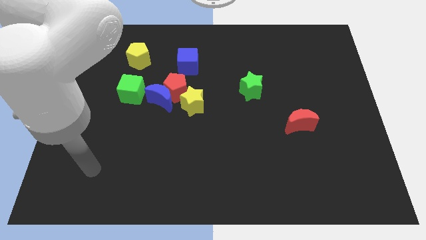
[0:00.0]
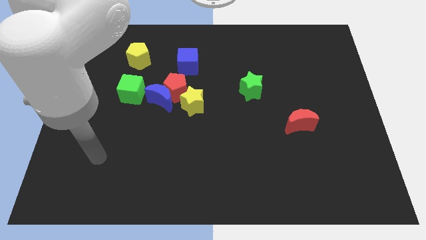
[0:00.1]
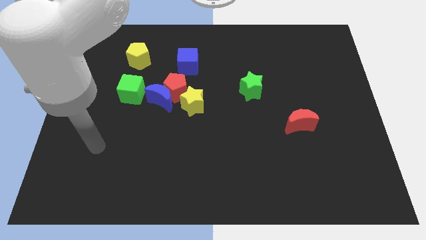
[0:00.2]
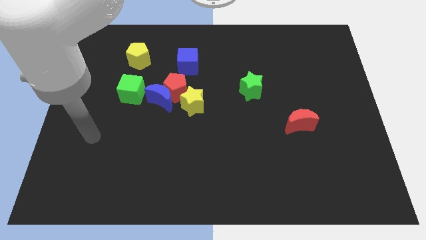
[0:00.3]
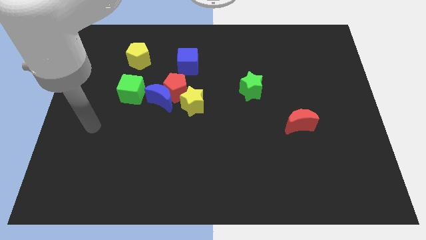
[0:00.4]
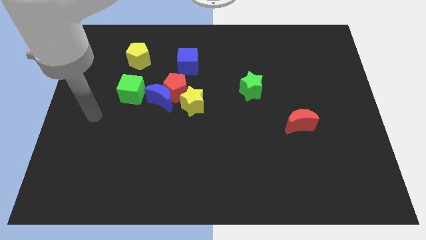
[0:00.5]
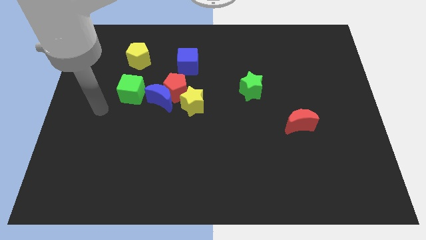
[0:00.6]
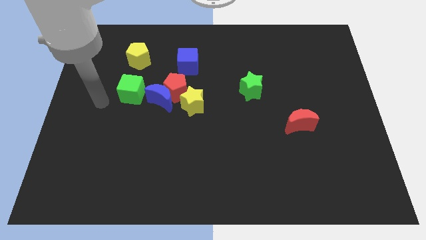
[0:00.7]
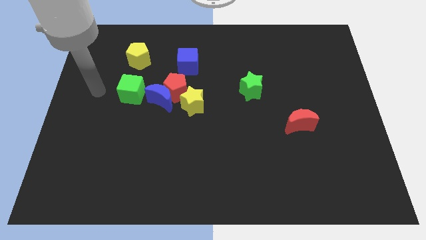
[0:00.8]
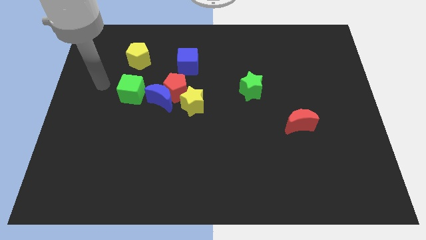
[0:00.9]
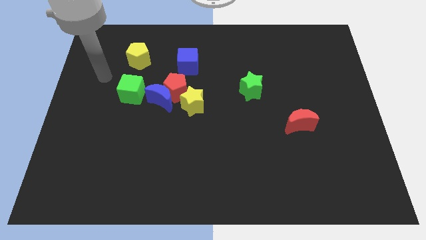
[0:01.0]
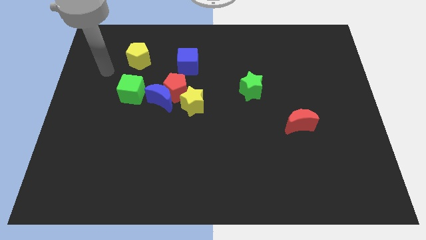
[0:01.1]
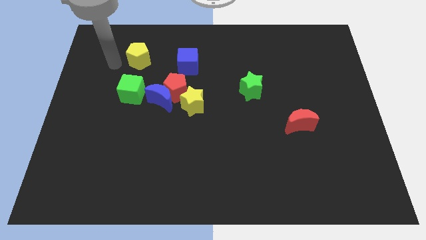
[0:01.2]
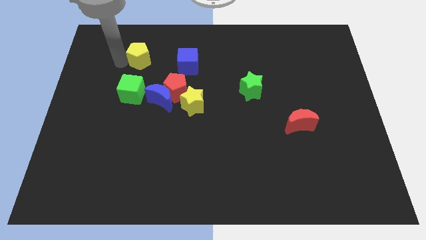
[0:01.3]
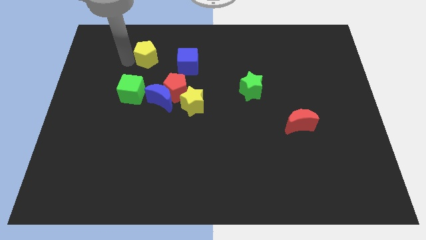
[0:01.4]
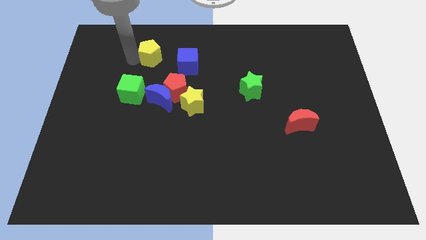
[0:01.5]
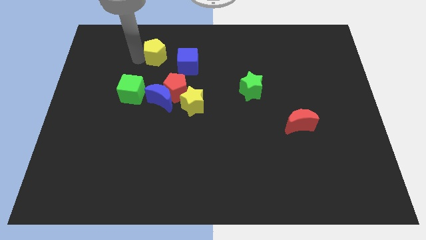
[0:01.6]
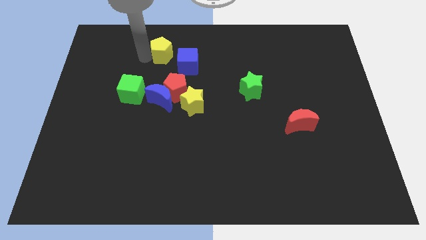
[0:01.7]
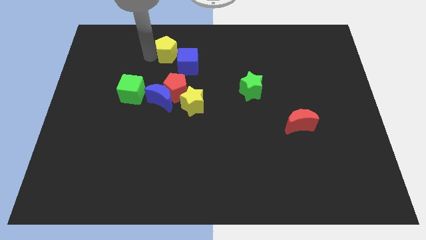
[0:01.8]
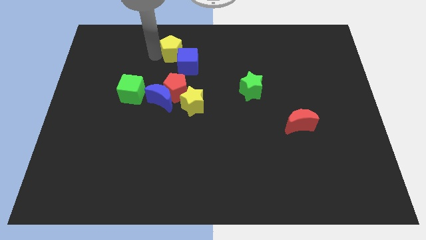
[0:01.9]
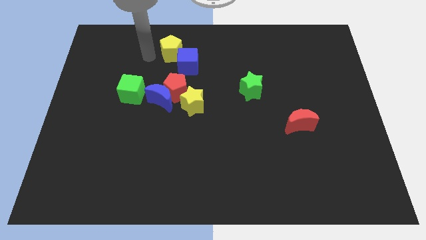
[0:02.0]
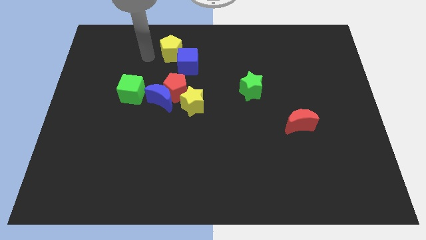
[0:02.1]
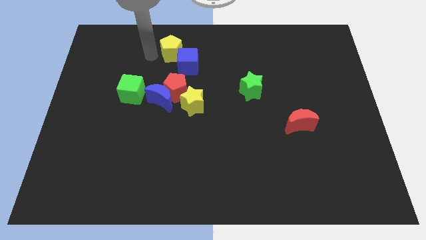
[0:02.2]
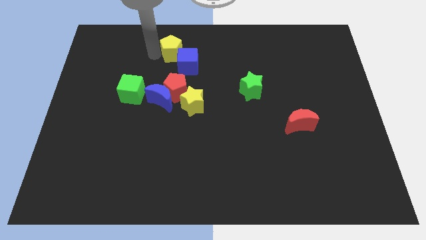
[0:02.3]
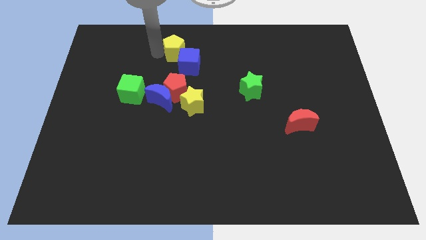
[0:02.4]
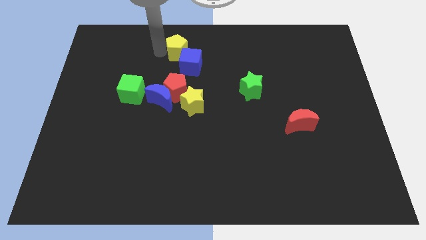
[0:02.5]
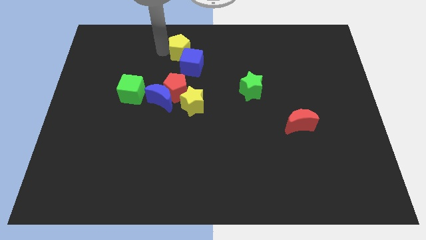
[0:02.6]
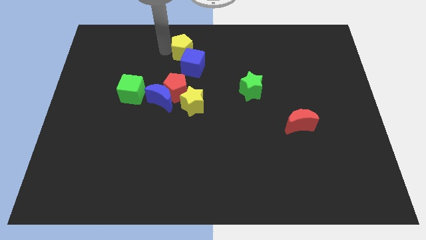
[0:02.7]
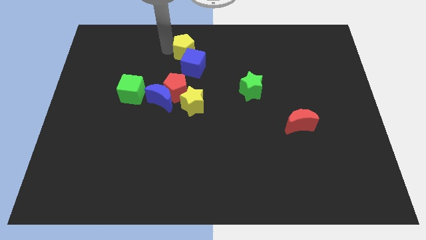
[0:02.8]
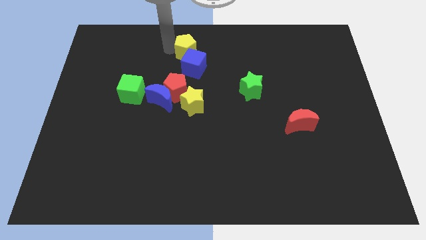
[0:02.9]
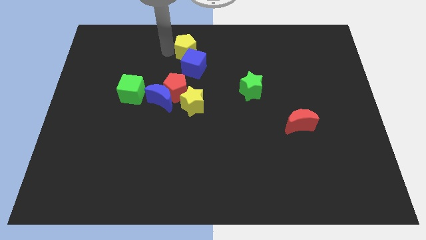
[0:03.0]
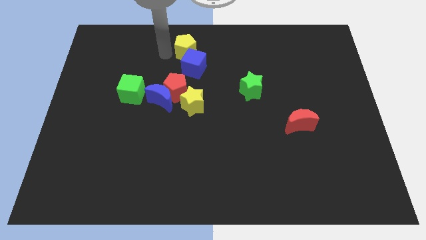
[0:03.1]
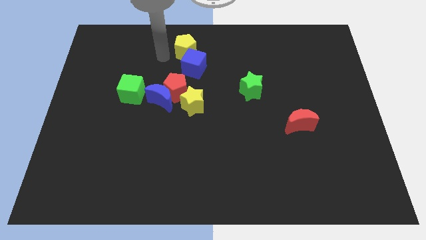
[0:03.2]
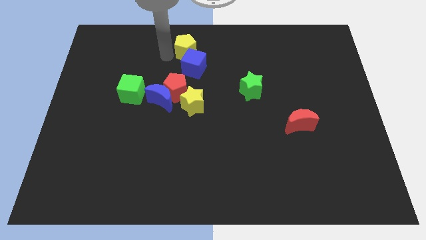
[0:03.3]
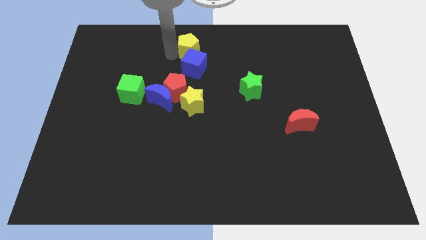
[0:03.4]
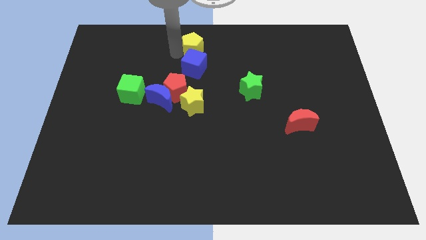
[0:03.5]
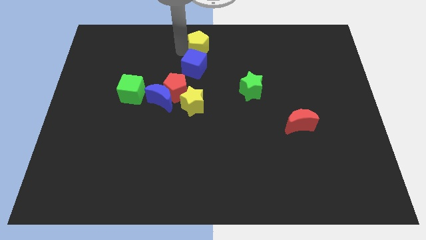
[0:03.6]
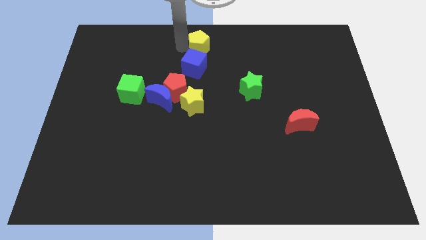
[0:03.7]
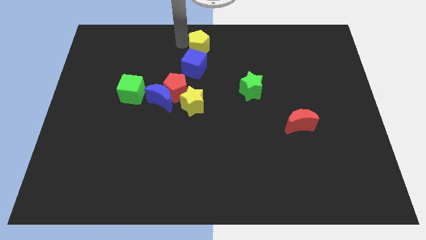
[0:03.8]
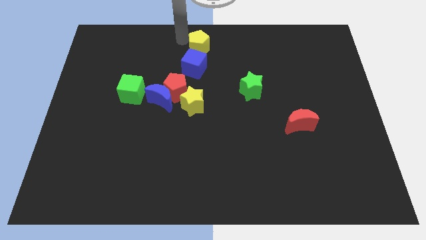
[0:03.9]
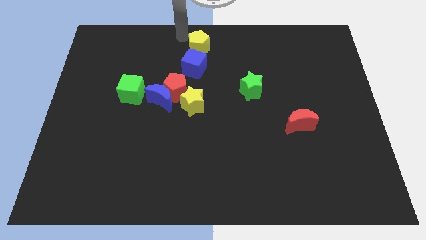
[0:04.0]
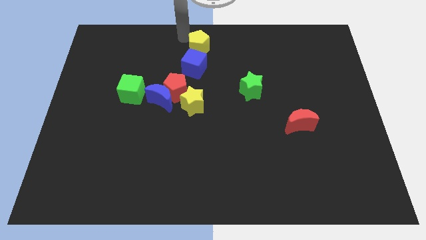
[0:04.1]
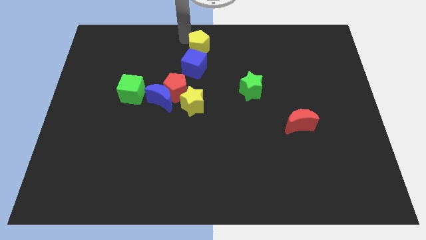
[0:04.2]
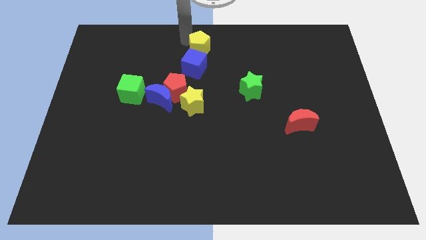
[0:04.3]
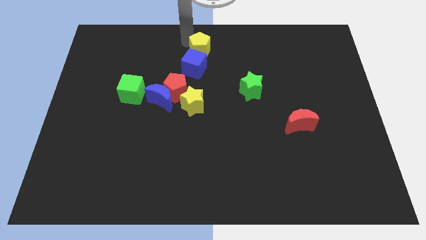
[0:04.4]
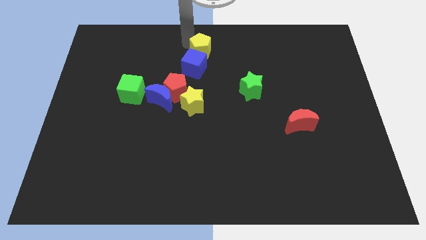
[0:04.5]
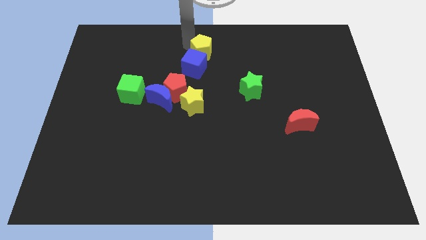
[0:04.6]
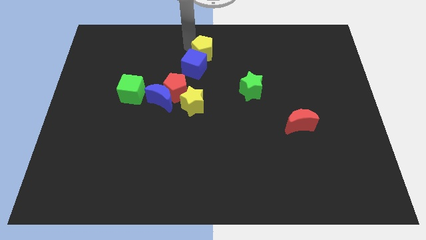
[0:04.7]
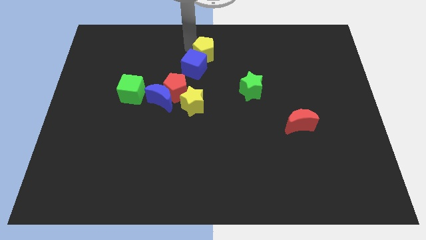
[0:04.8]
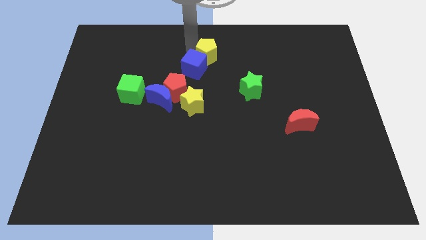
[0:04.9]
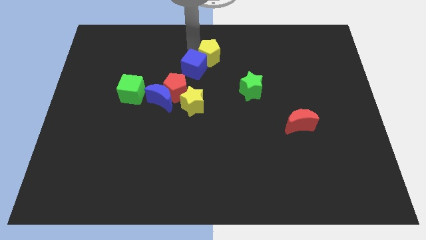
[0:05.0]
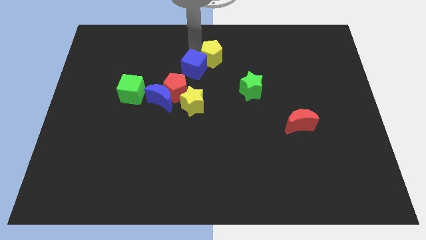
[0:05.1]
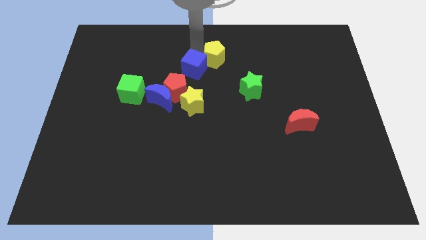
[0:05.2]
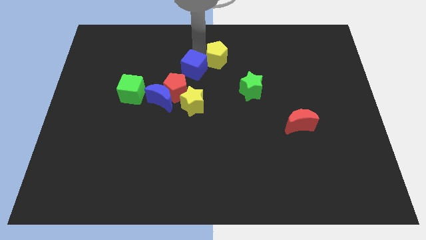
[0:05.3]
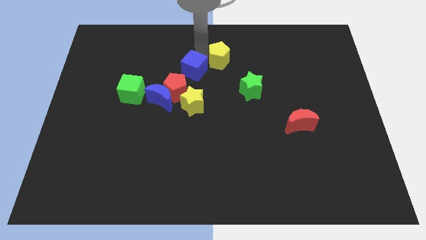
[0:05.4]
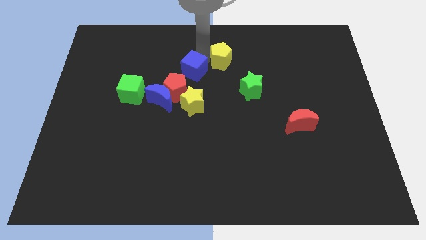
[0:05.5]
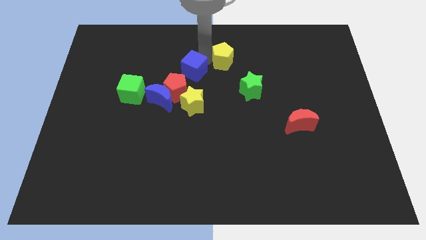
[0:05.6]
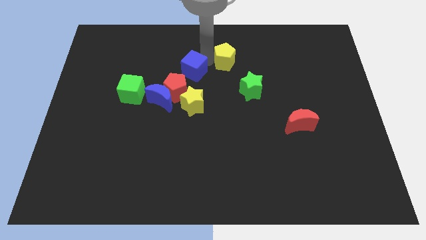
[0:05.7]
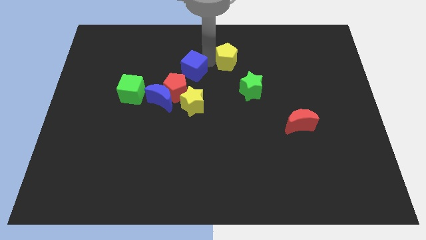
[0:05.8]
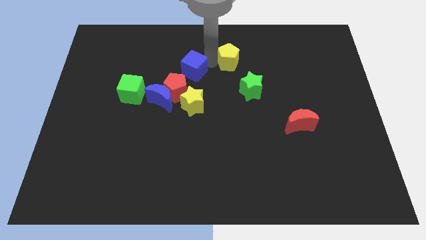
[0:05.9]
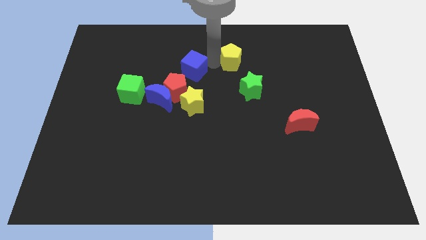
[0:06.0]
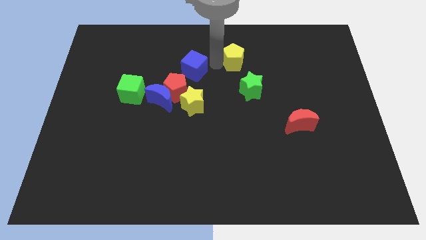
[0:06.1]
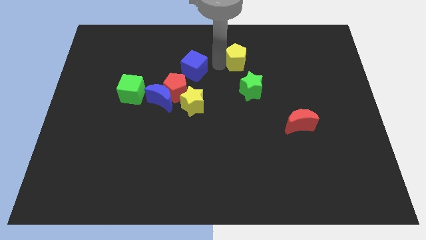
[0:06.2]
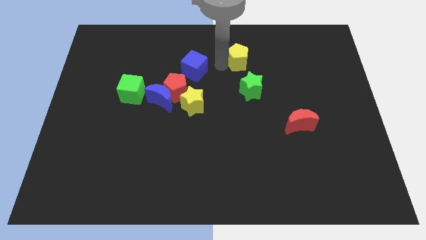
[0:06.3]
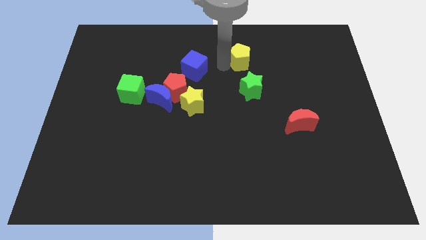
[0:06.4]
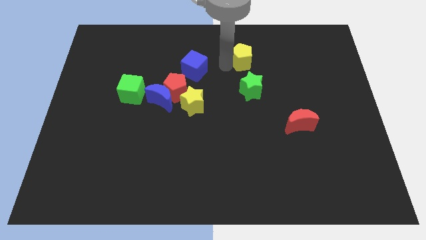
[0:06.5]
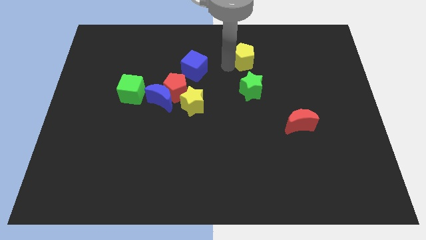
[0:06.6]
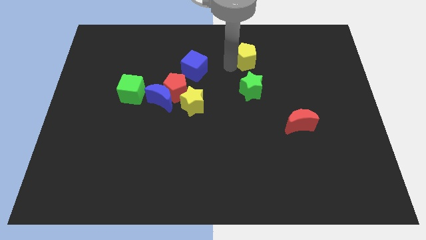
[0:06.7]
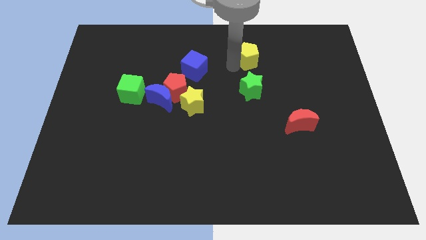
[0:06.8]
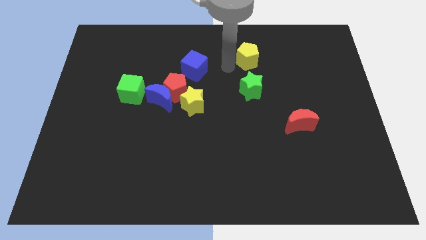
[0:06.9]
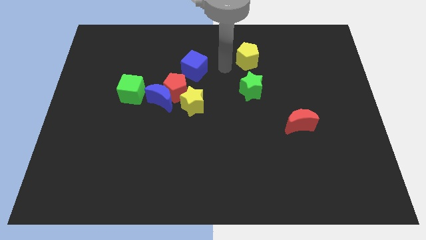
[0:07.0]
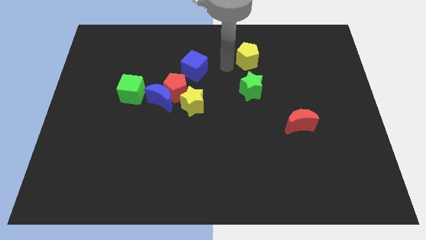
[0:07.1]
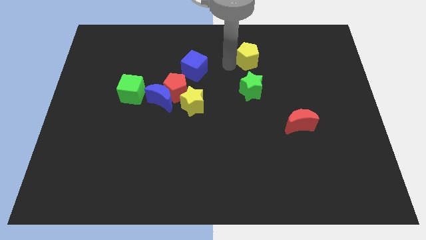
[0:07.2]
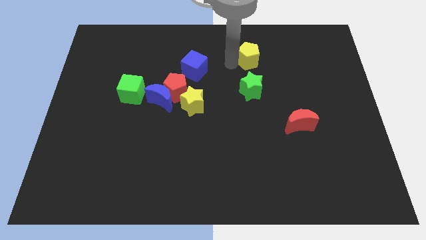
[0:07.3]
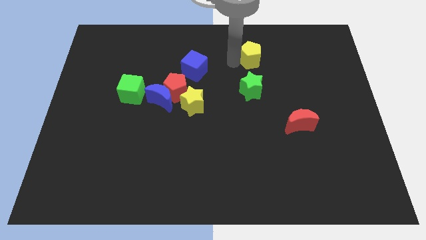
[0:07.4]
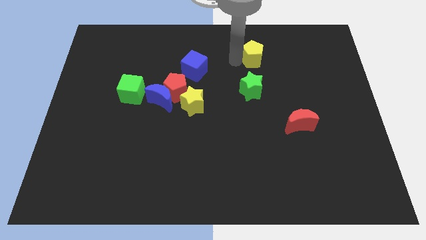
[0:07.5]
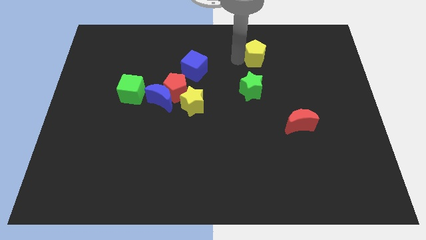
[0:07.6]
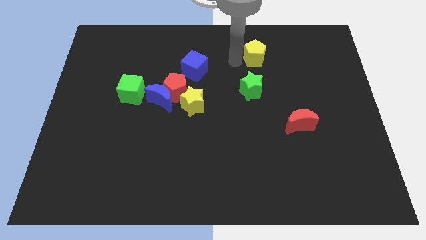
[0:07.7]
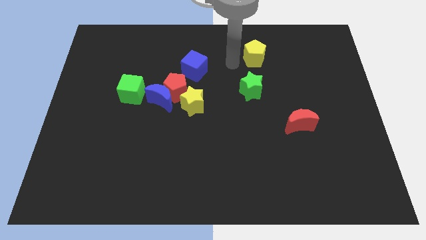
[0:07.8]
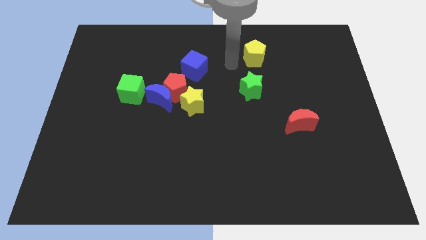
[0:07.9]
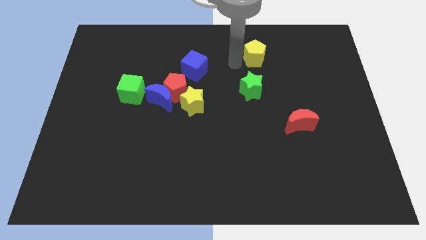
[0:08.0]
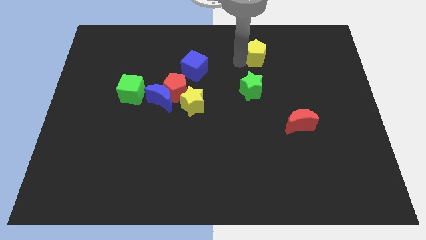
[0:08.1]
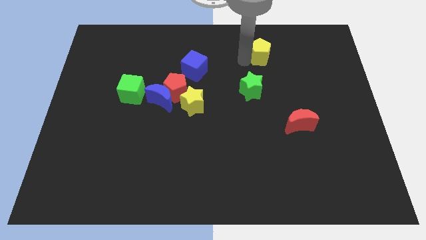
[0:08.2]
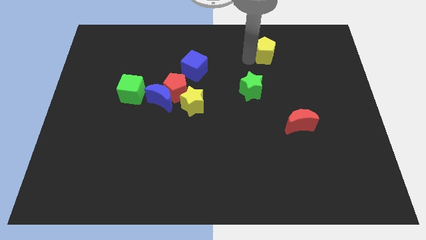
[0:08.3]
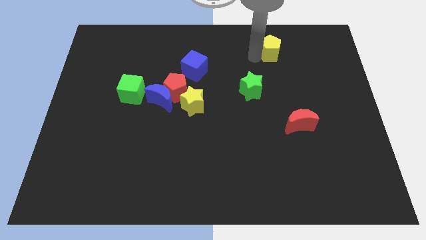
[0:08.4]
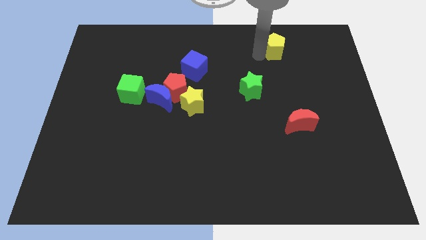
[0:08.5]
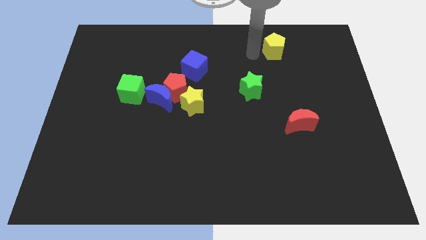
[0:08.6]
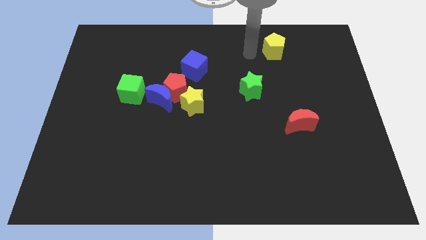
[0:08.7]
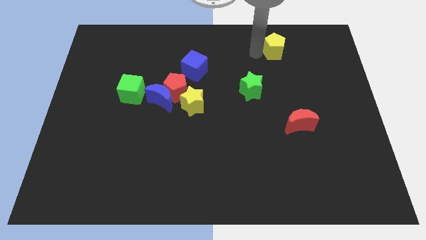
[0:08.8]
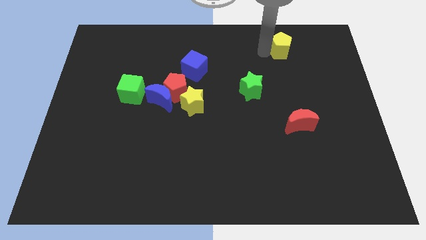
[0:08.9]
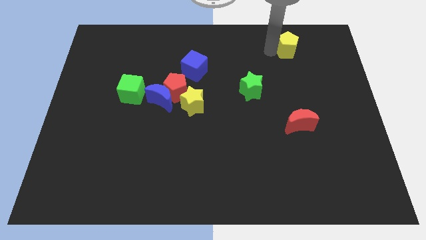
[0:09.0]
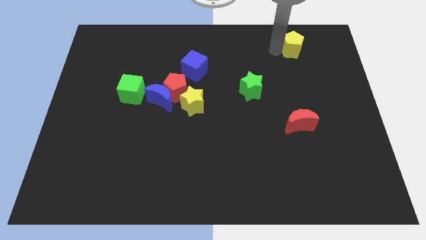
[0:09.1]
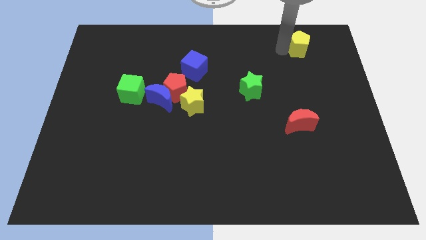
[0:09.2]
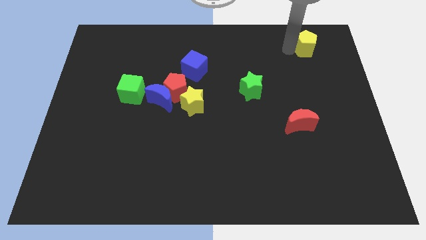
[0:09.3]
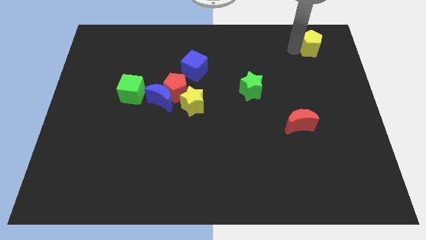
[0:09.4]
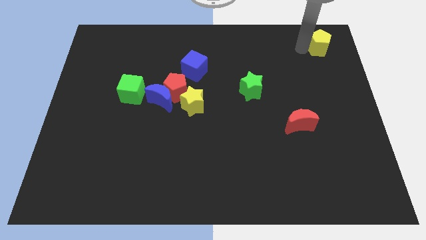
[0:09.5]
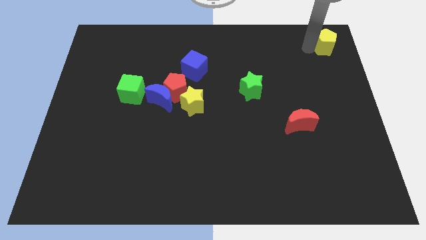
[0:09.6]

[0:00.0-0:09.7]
slide the yellow pentagon to the top right corner
